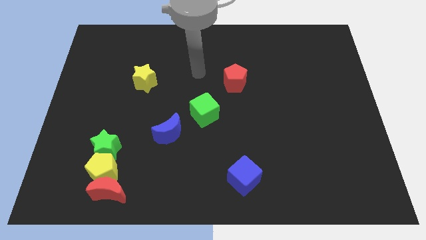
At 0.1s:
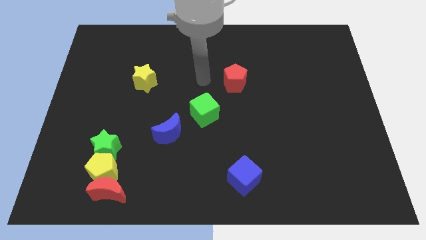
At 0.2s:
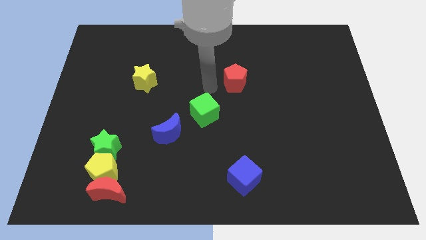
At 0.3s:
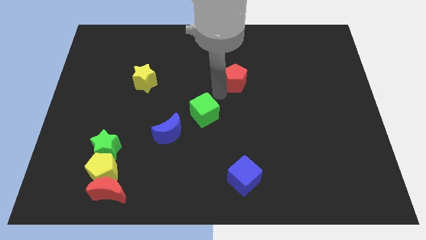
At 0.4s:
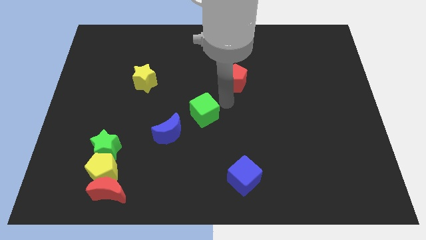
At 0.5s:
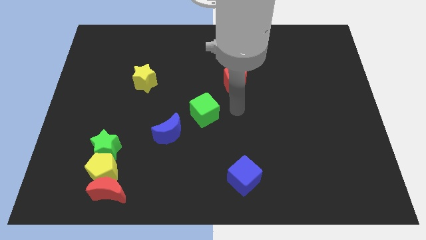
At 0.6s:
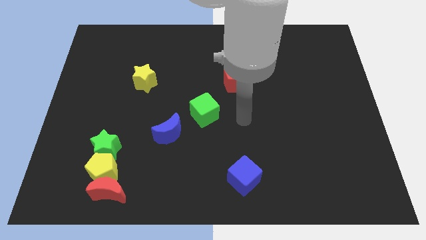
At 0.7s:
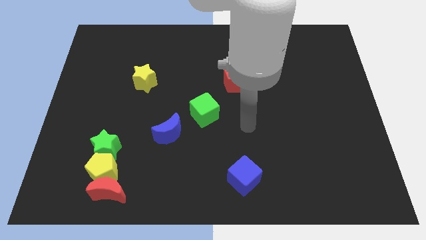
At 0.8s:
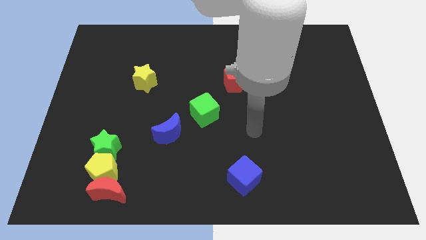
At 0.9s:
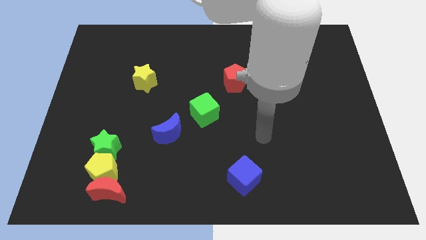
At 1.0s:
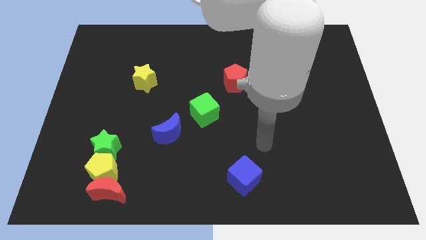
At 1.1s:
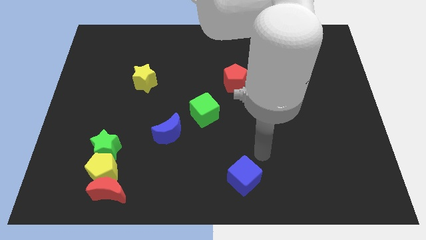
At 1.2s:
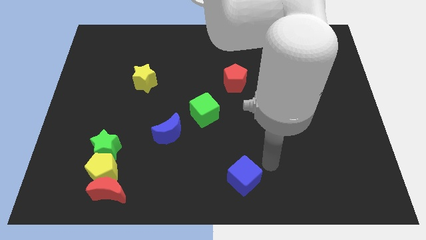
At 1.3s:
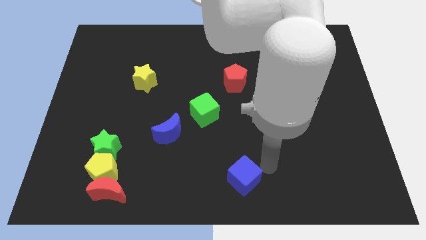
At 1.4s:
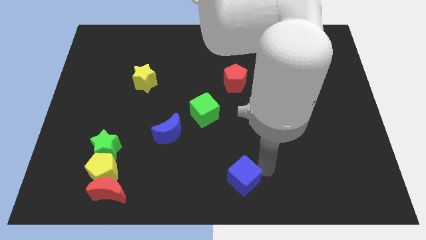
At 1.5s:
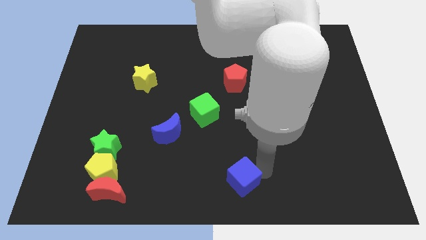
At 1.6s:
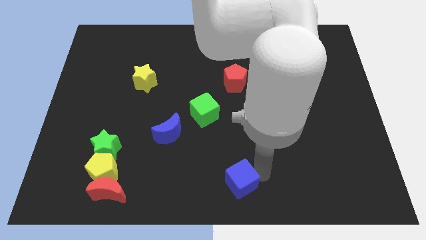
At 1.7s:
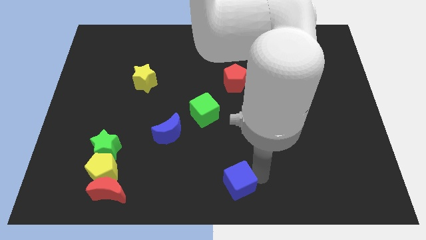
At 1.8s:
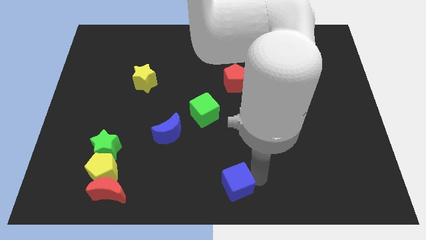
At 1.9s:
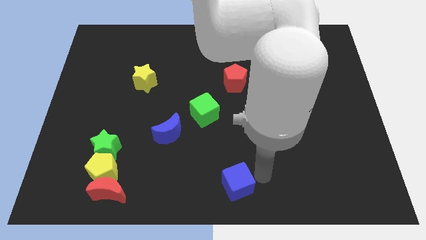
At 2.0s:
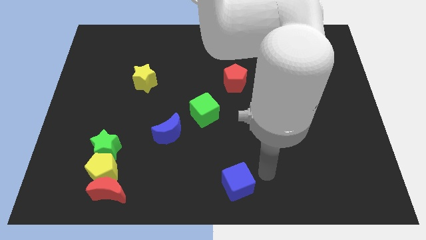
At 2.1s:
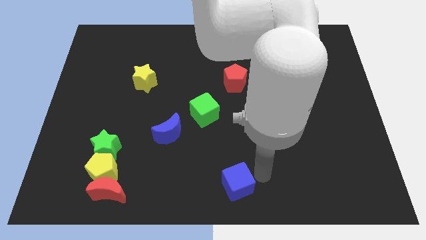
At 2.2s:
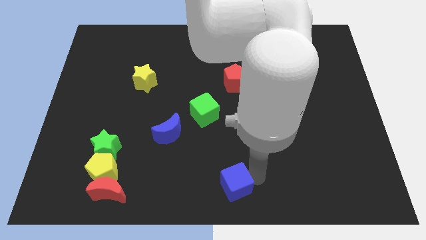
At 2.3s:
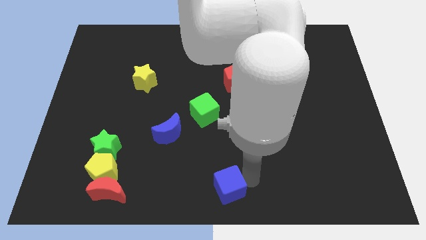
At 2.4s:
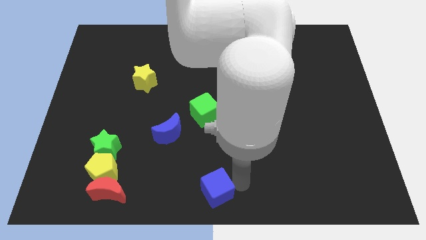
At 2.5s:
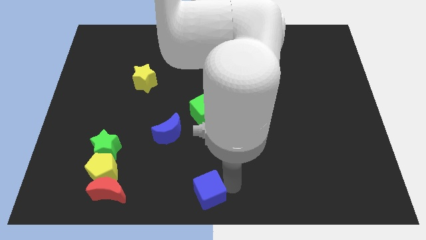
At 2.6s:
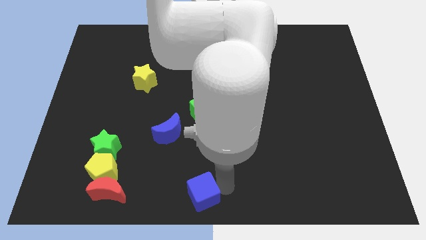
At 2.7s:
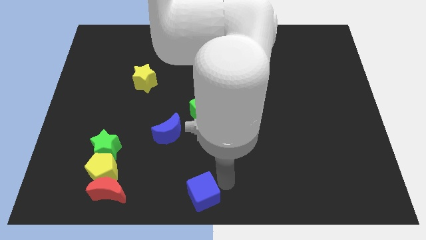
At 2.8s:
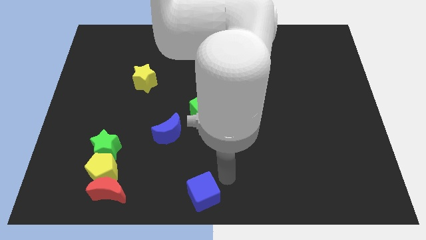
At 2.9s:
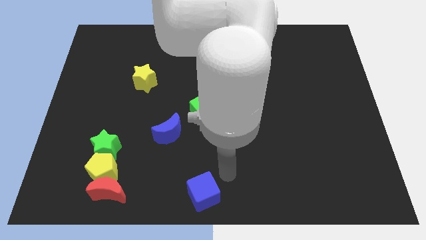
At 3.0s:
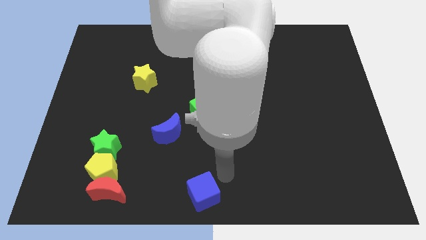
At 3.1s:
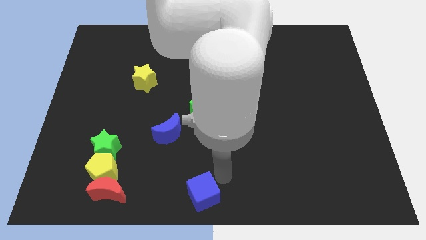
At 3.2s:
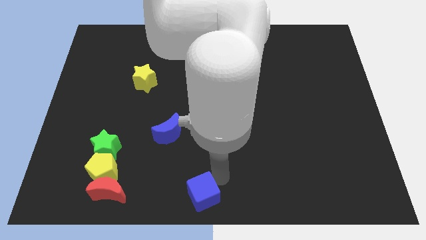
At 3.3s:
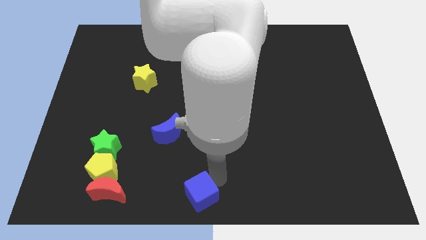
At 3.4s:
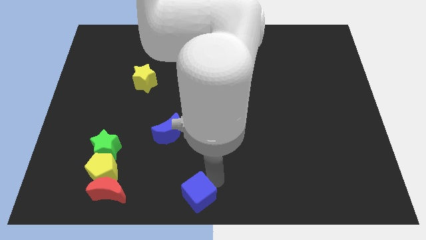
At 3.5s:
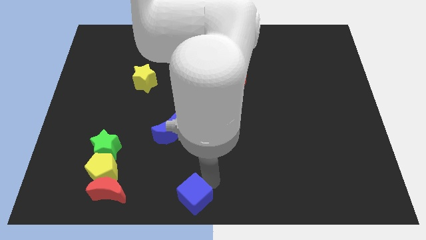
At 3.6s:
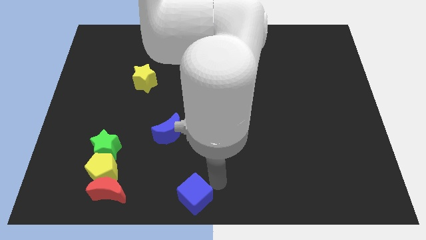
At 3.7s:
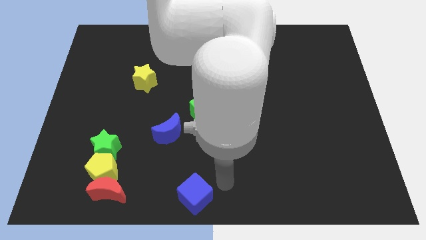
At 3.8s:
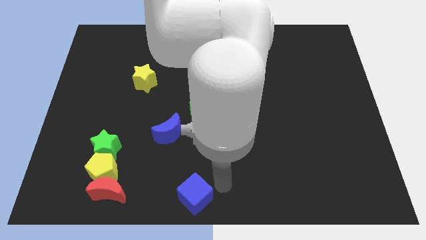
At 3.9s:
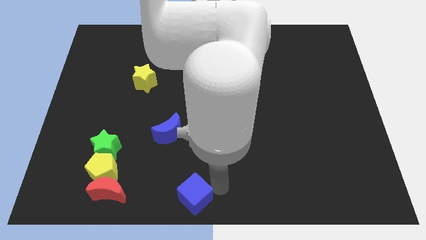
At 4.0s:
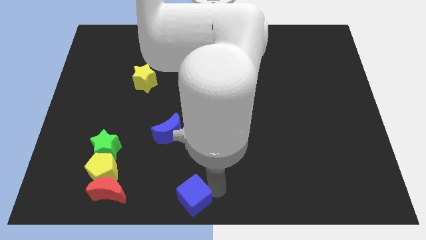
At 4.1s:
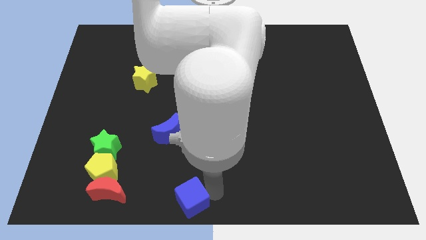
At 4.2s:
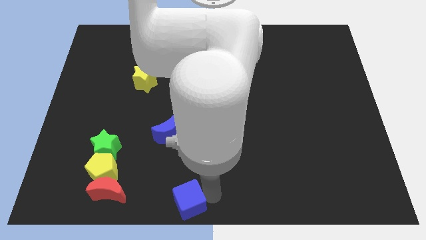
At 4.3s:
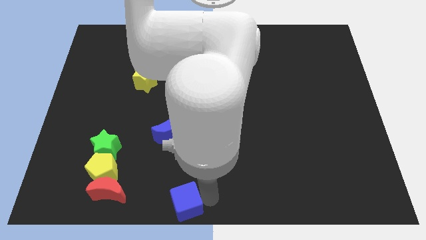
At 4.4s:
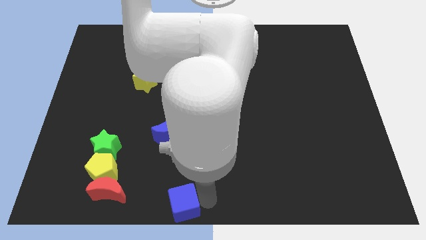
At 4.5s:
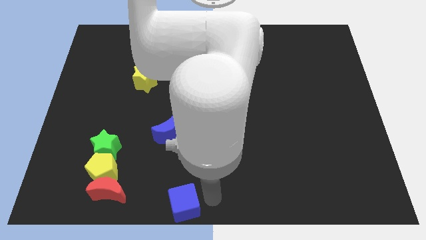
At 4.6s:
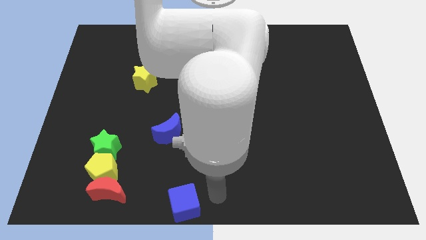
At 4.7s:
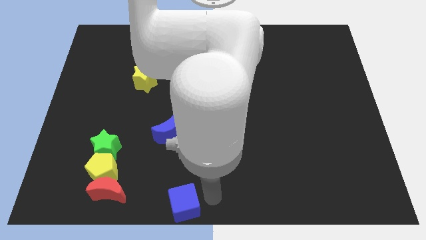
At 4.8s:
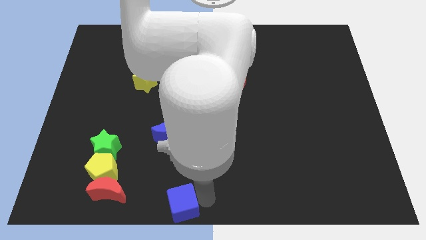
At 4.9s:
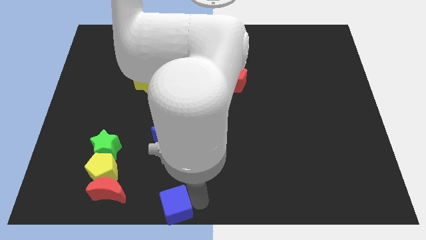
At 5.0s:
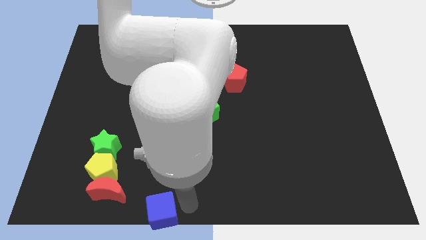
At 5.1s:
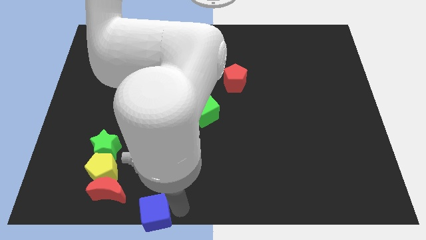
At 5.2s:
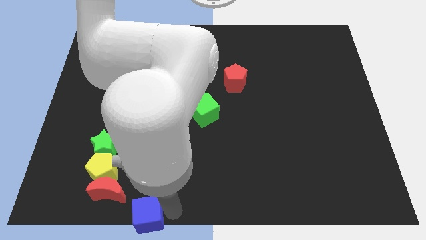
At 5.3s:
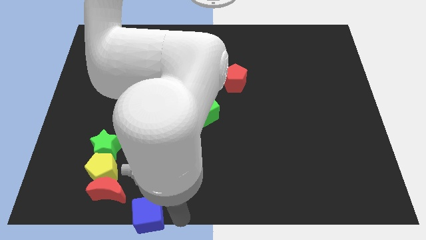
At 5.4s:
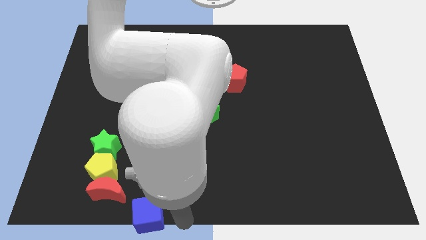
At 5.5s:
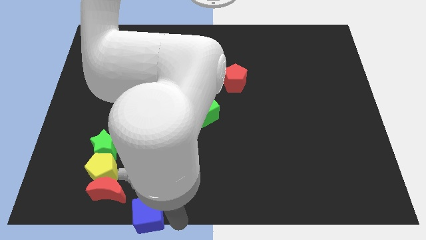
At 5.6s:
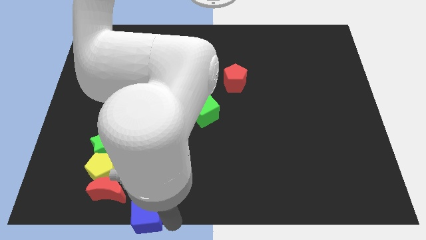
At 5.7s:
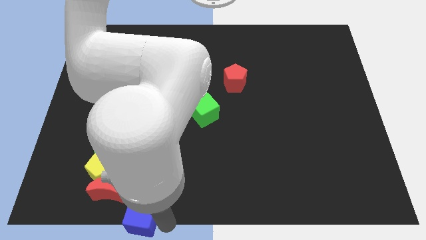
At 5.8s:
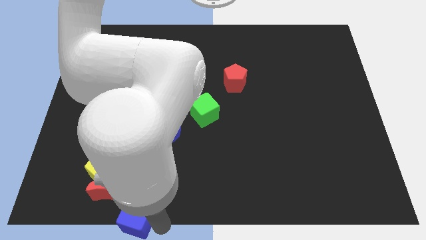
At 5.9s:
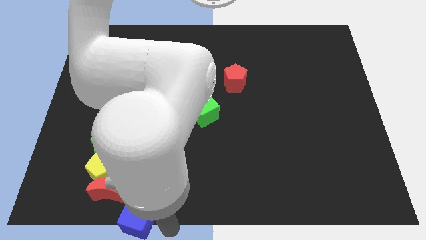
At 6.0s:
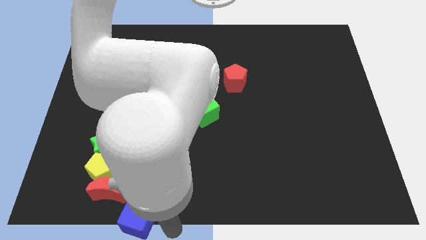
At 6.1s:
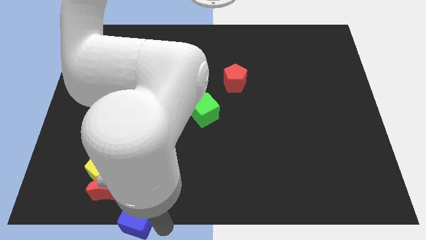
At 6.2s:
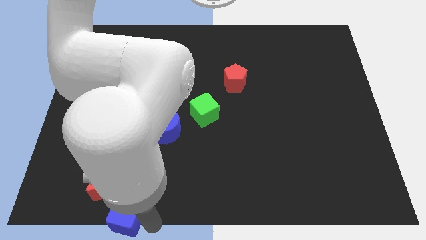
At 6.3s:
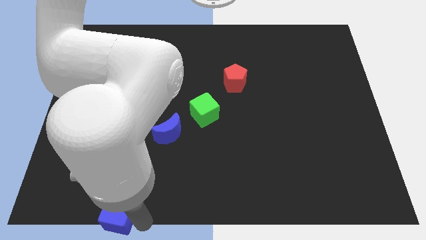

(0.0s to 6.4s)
move the blue cube to the left

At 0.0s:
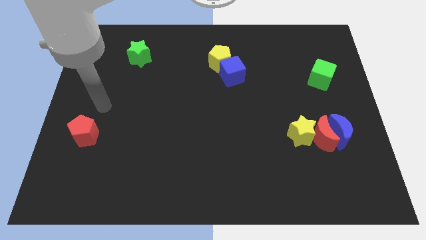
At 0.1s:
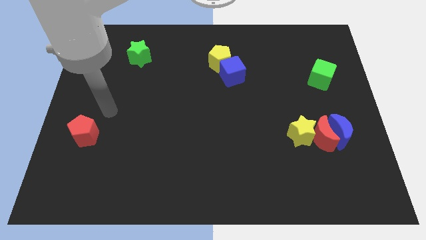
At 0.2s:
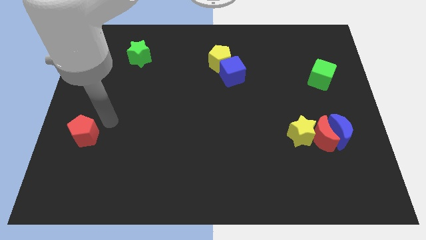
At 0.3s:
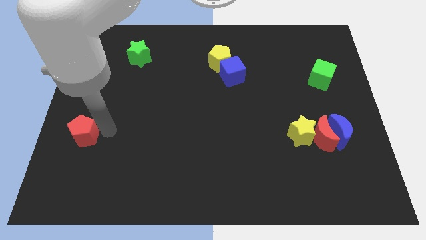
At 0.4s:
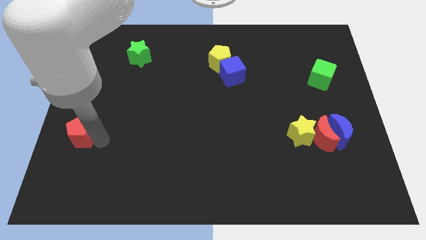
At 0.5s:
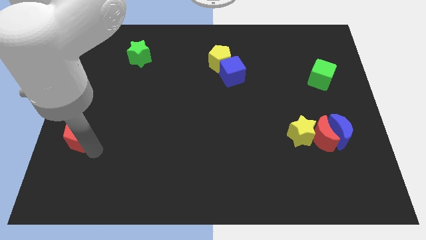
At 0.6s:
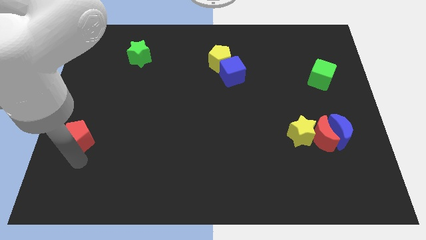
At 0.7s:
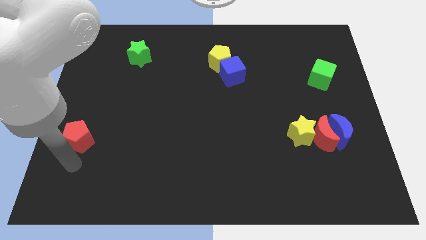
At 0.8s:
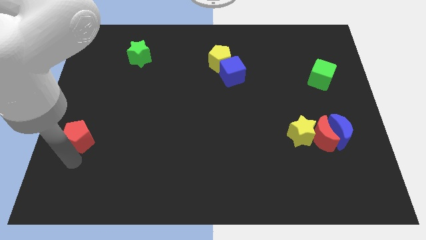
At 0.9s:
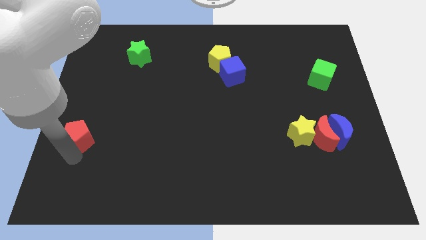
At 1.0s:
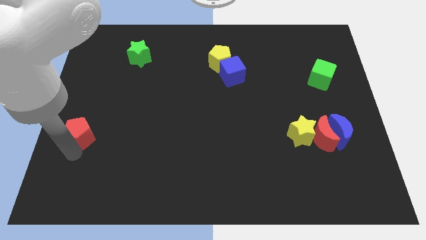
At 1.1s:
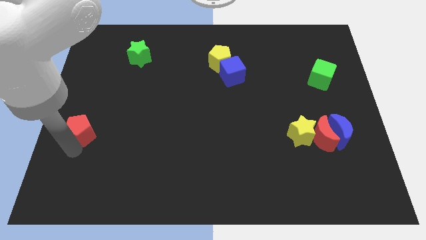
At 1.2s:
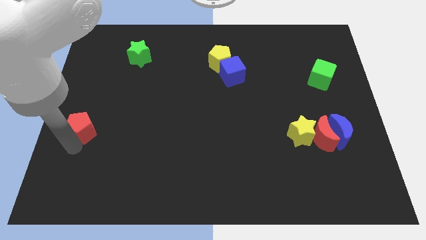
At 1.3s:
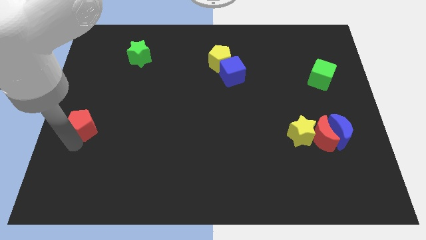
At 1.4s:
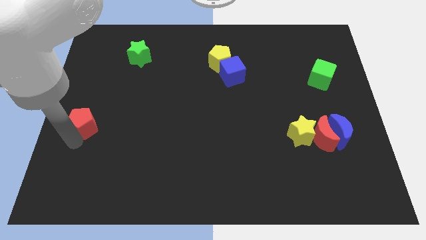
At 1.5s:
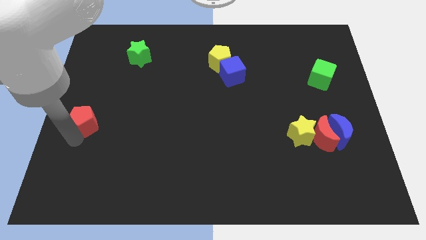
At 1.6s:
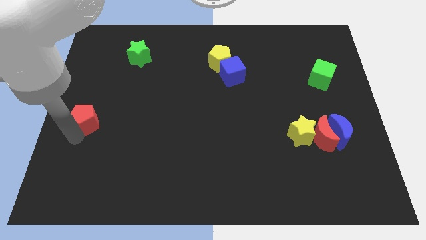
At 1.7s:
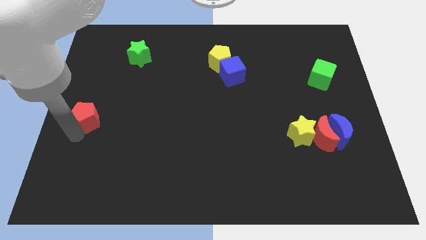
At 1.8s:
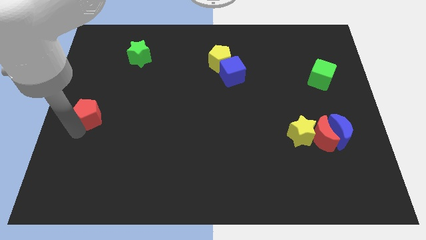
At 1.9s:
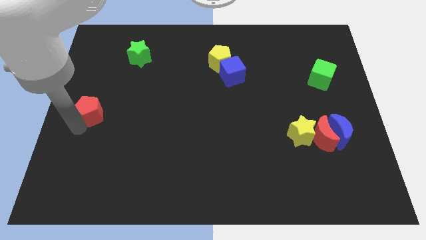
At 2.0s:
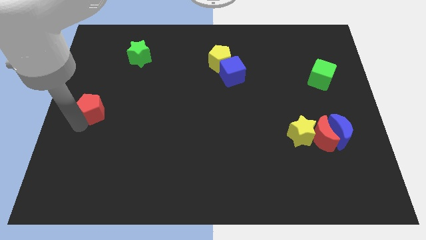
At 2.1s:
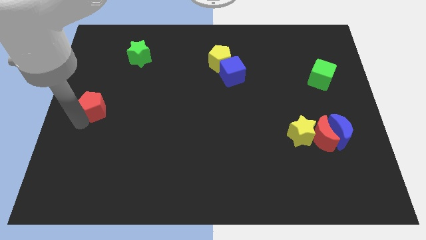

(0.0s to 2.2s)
push the red pentagon a little upwards
